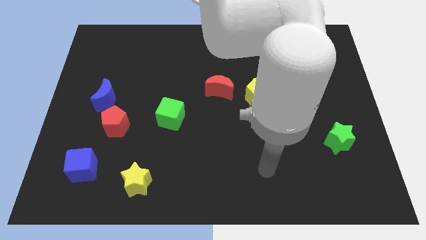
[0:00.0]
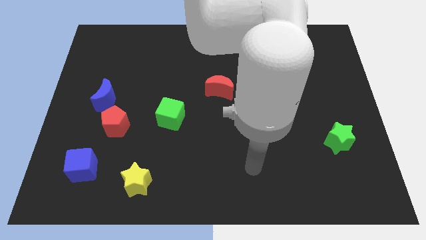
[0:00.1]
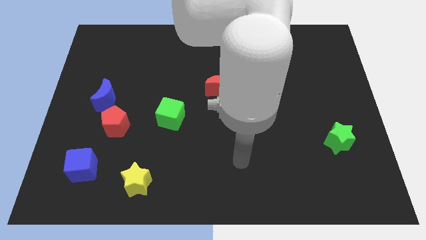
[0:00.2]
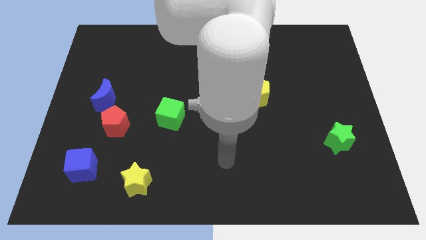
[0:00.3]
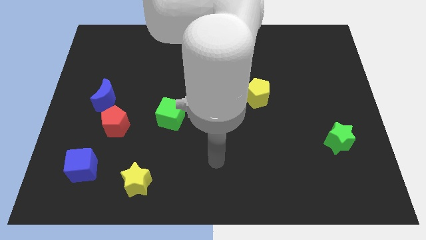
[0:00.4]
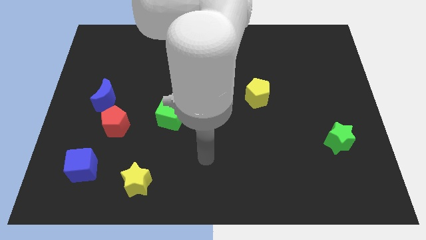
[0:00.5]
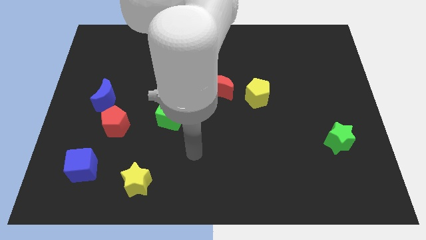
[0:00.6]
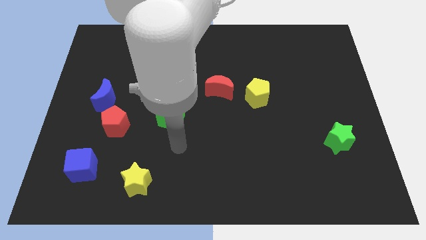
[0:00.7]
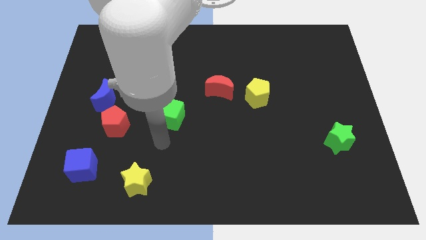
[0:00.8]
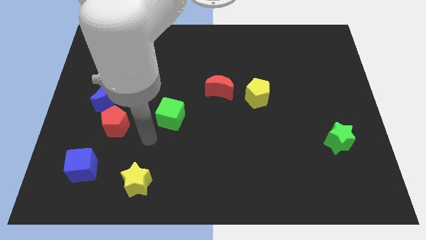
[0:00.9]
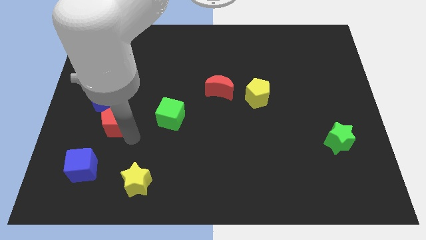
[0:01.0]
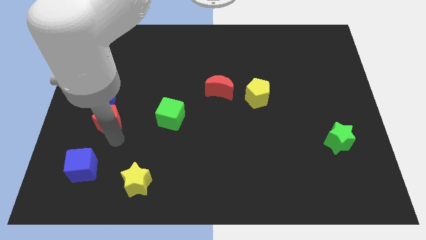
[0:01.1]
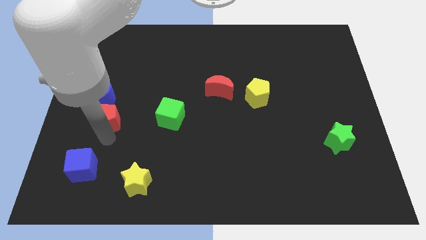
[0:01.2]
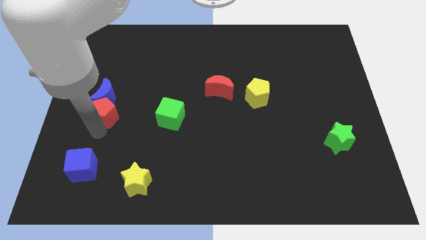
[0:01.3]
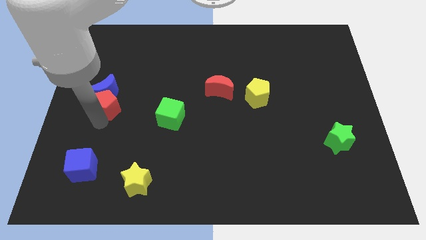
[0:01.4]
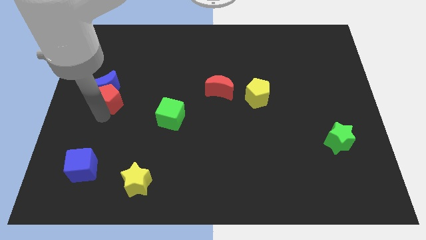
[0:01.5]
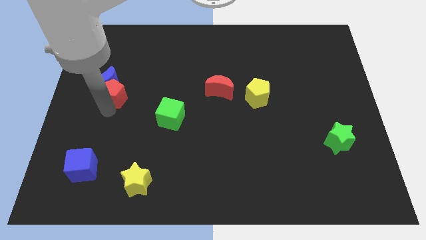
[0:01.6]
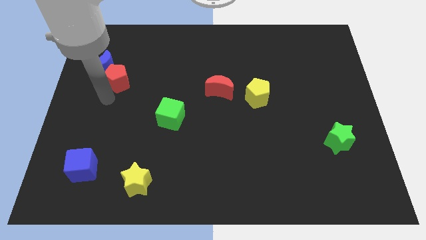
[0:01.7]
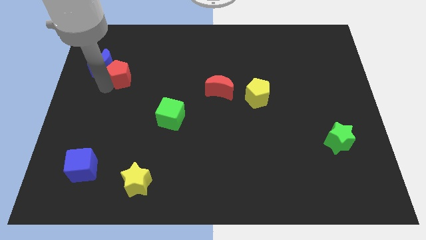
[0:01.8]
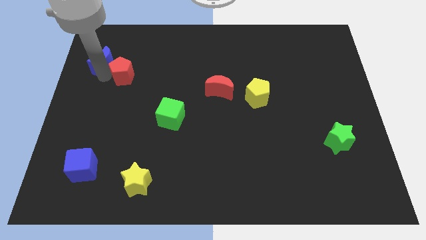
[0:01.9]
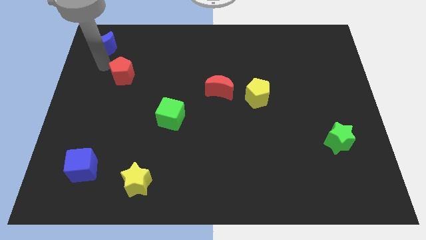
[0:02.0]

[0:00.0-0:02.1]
separate the red pentagon from the blue moon

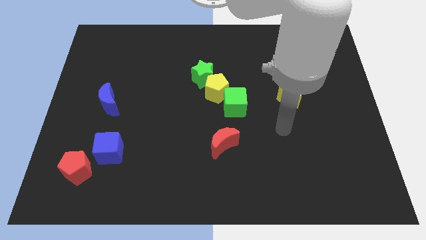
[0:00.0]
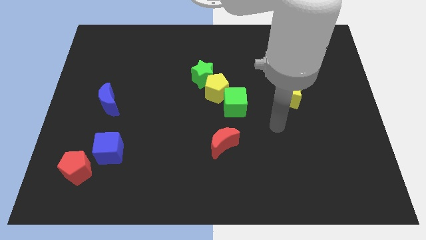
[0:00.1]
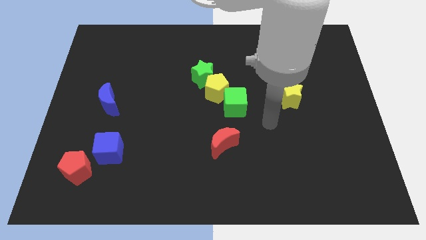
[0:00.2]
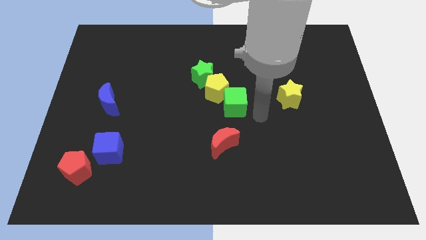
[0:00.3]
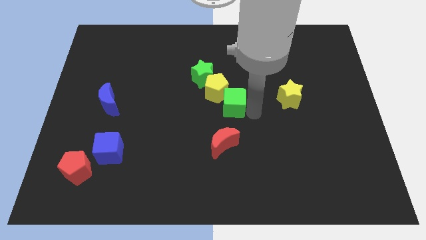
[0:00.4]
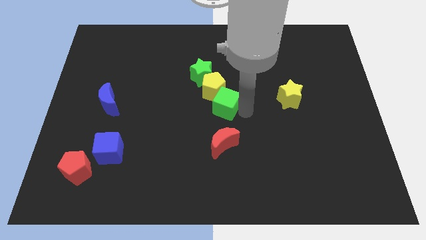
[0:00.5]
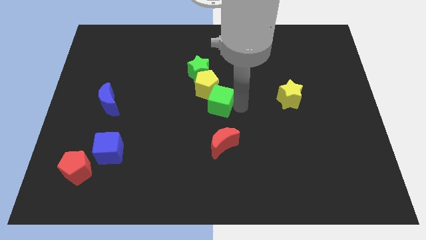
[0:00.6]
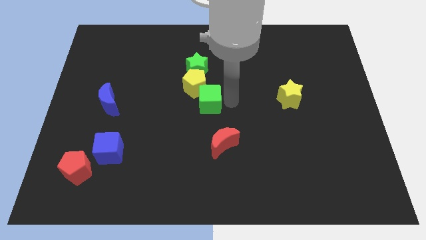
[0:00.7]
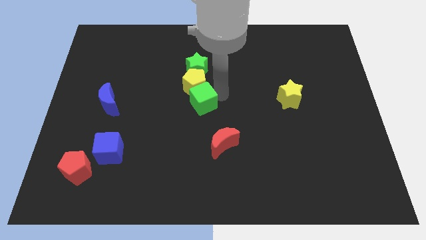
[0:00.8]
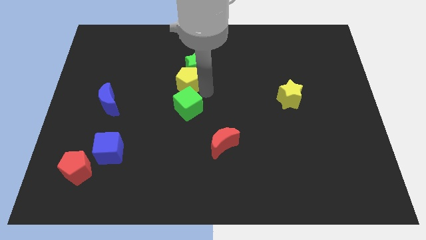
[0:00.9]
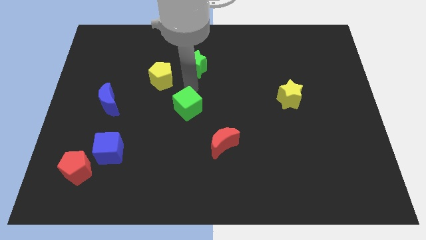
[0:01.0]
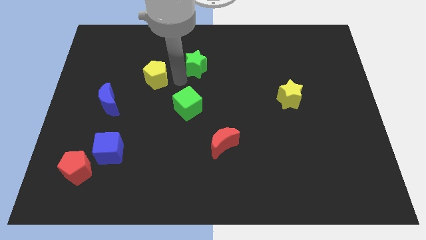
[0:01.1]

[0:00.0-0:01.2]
move the green star away from the yellow pentagon

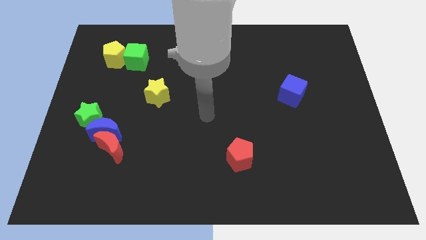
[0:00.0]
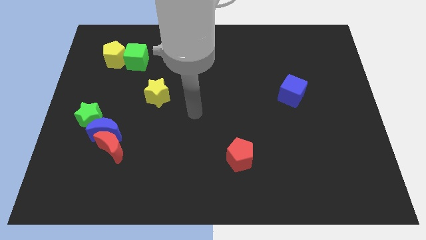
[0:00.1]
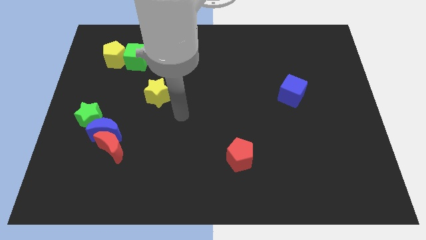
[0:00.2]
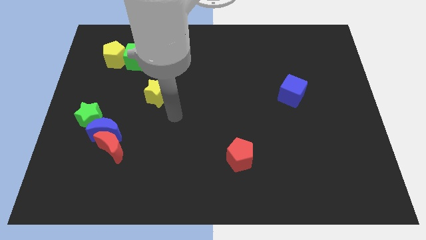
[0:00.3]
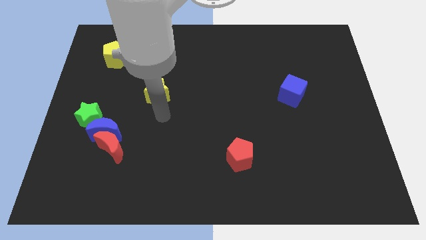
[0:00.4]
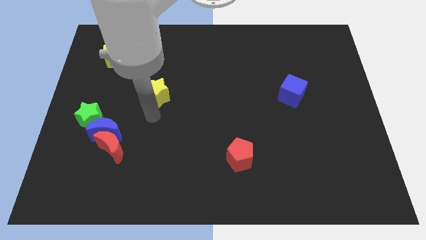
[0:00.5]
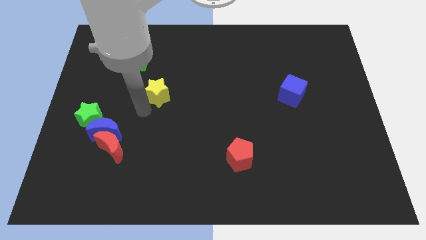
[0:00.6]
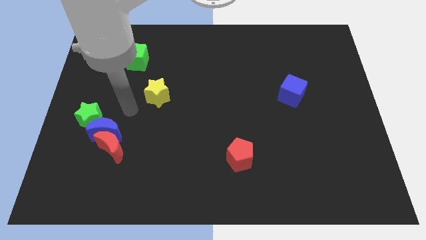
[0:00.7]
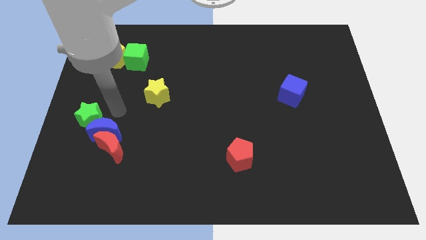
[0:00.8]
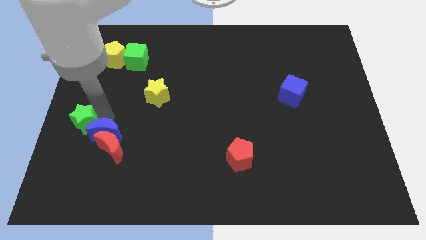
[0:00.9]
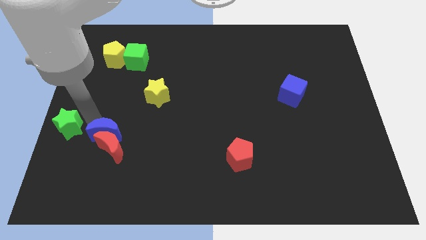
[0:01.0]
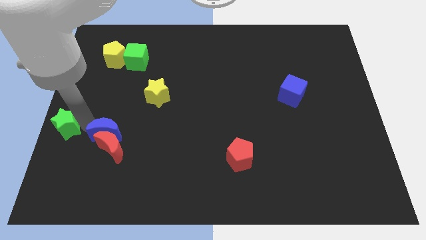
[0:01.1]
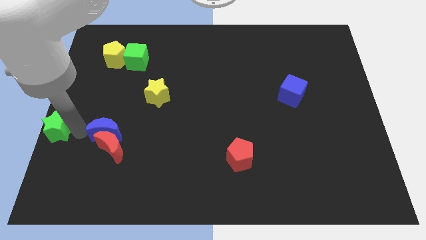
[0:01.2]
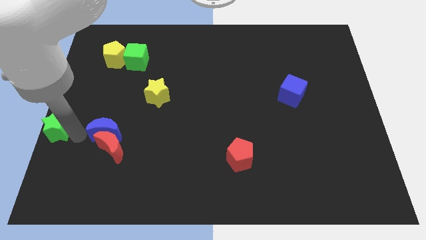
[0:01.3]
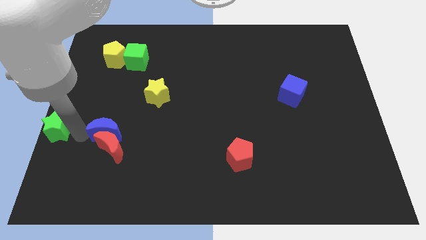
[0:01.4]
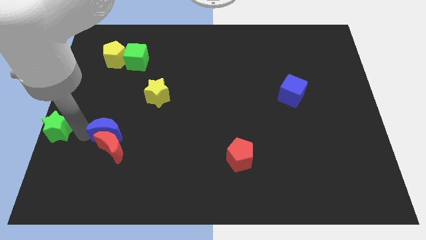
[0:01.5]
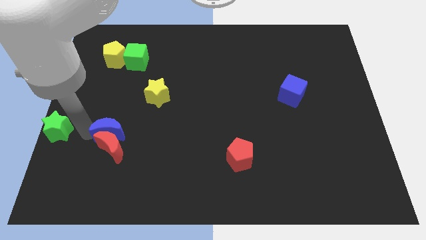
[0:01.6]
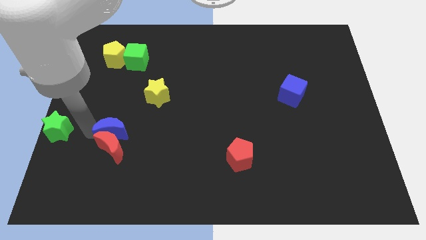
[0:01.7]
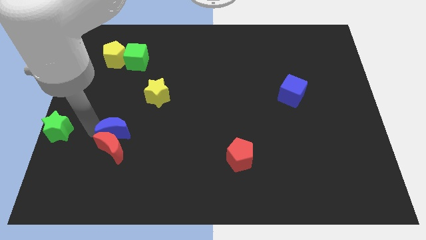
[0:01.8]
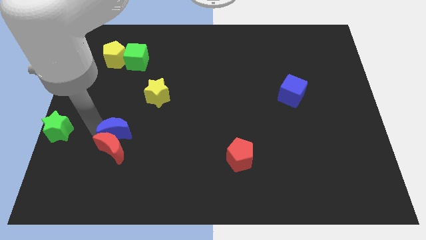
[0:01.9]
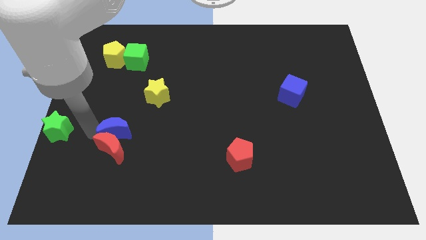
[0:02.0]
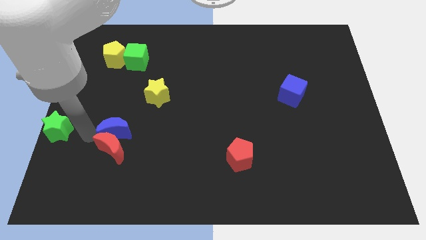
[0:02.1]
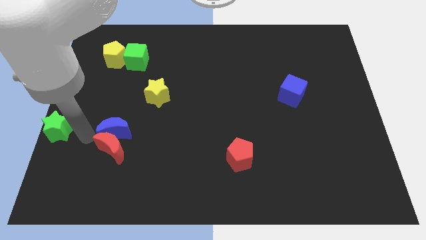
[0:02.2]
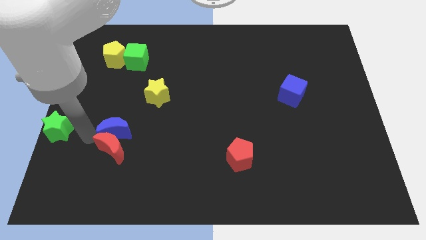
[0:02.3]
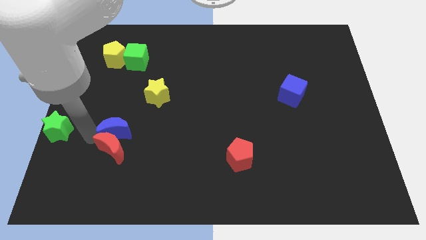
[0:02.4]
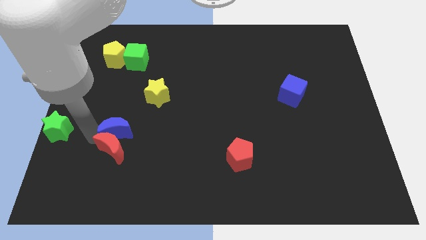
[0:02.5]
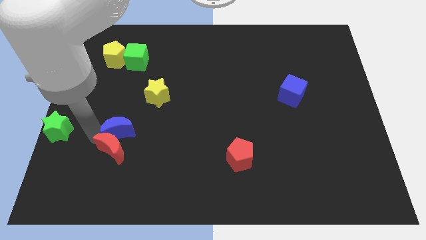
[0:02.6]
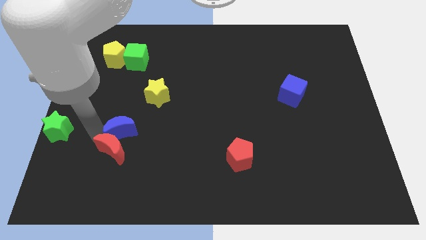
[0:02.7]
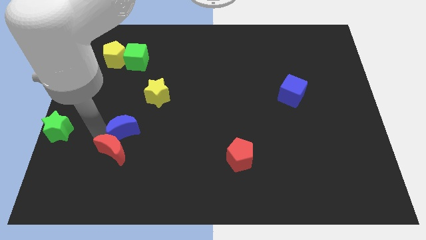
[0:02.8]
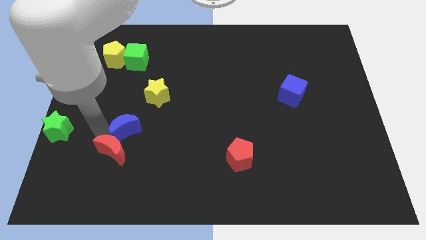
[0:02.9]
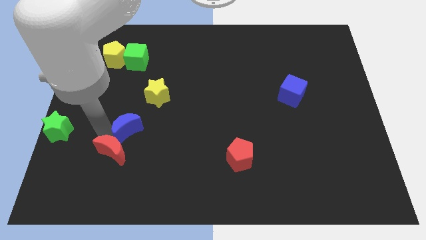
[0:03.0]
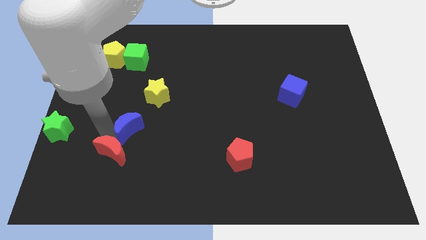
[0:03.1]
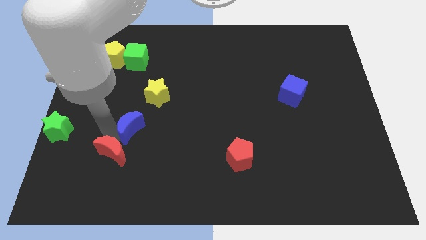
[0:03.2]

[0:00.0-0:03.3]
pull the blue moon apart from the red moon and green star

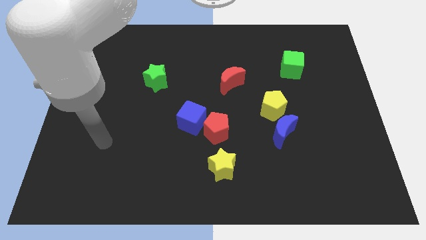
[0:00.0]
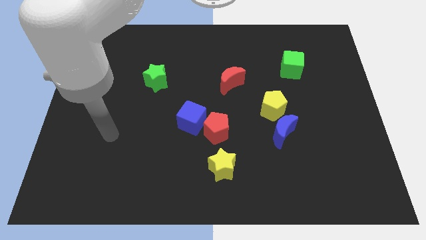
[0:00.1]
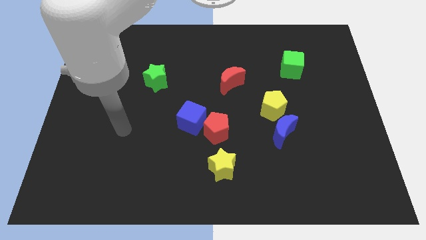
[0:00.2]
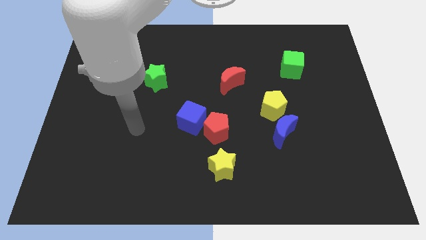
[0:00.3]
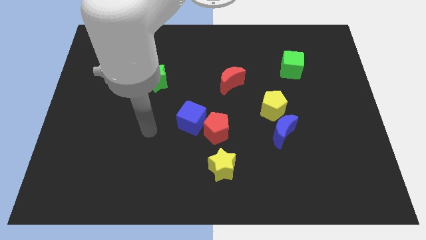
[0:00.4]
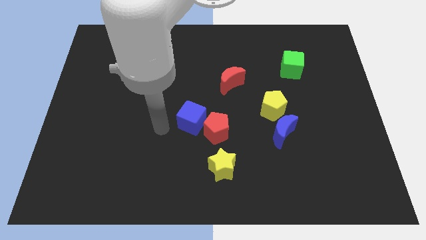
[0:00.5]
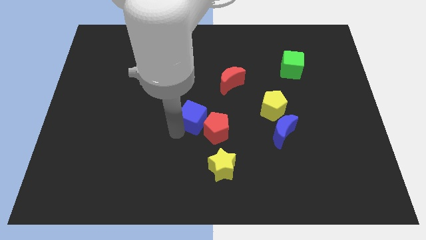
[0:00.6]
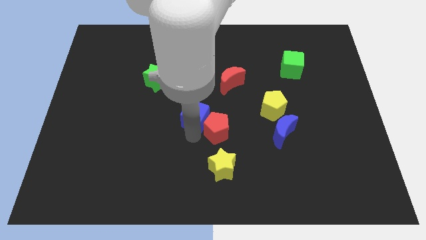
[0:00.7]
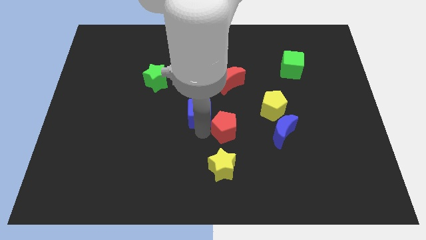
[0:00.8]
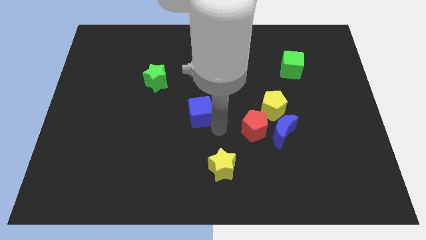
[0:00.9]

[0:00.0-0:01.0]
pull the blue cube apart from the red pentagon

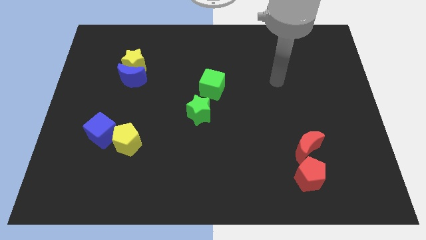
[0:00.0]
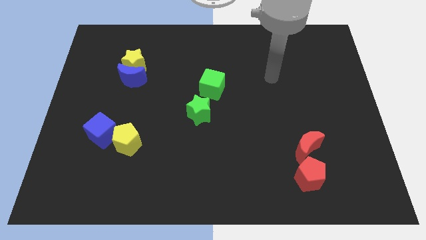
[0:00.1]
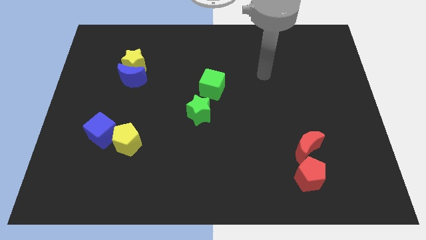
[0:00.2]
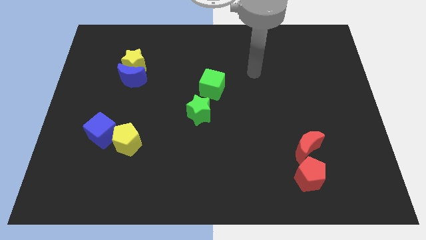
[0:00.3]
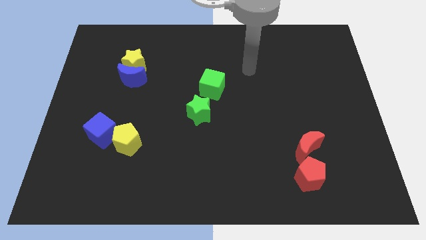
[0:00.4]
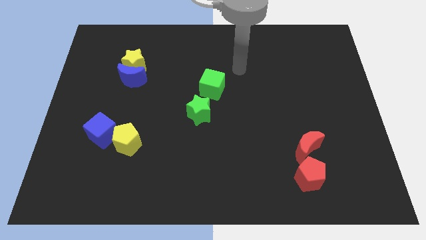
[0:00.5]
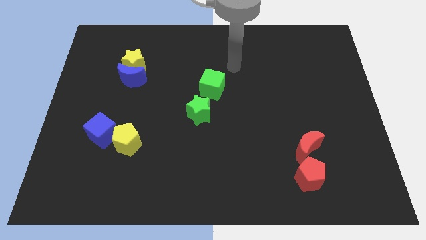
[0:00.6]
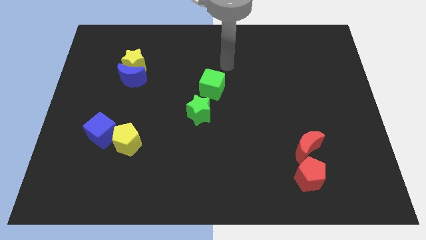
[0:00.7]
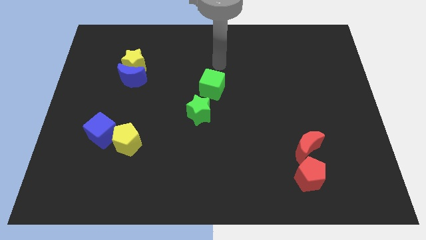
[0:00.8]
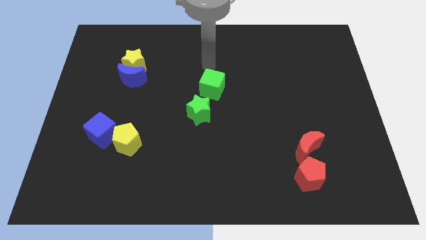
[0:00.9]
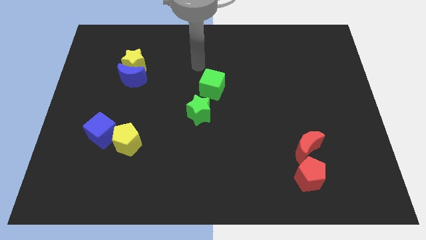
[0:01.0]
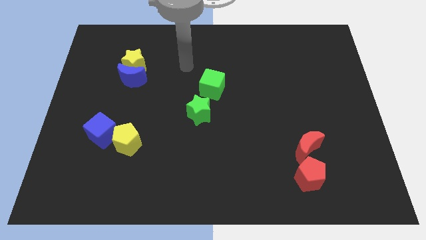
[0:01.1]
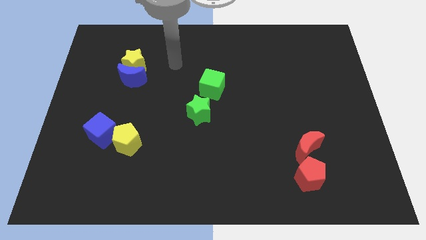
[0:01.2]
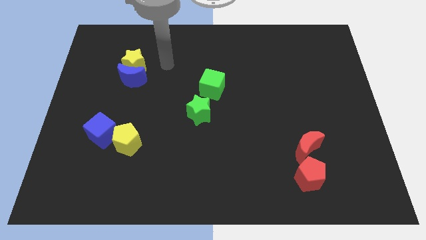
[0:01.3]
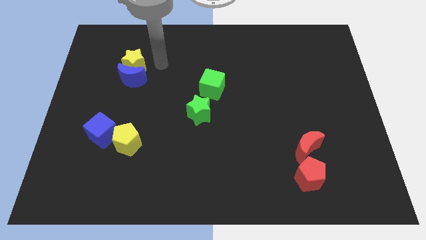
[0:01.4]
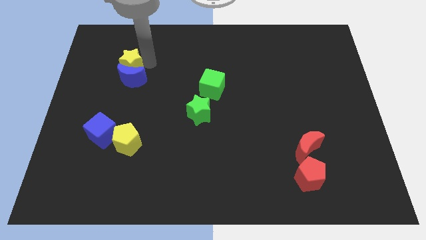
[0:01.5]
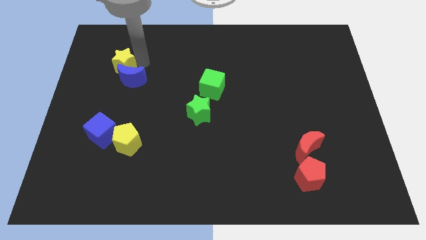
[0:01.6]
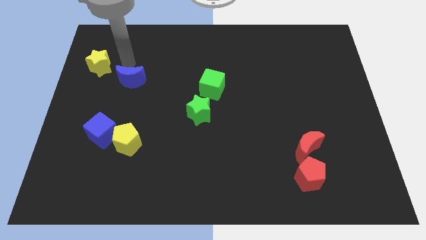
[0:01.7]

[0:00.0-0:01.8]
move the blue moon away from the yellow star

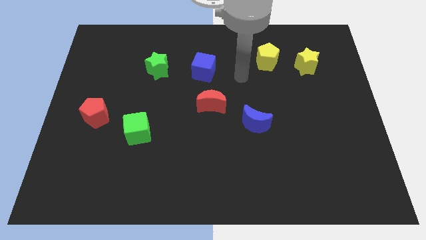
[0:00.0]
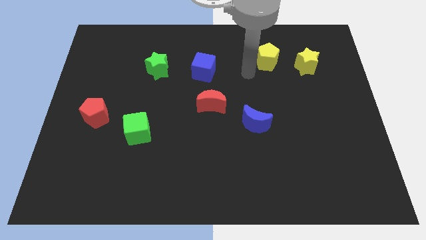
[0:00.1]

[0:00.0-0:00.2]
pull the yellow star apart from the yellow pentagon
